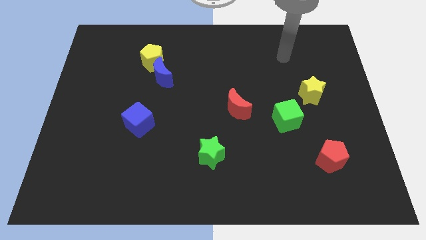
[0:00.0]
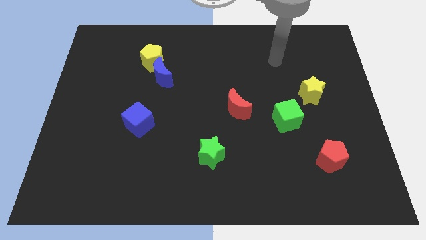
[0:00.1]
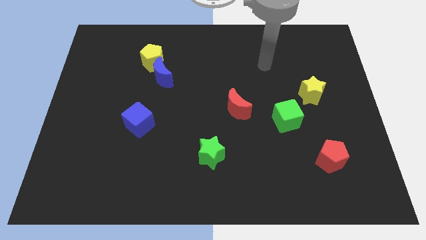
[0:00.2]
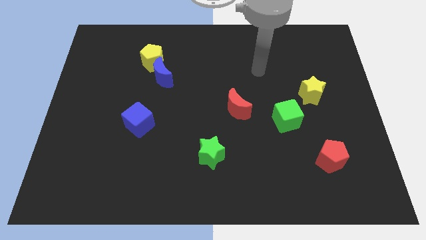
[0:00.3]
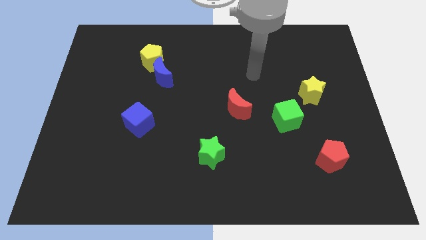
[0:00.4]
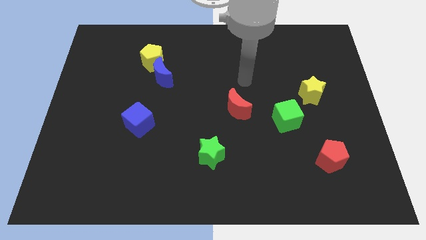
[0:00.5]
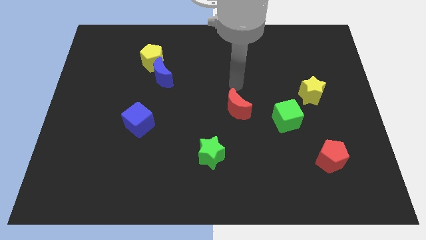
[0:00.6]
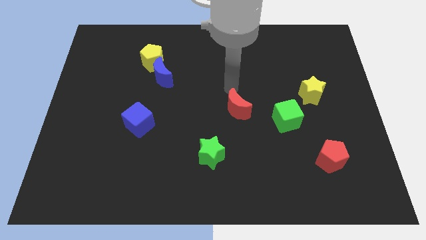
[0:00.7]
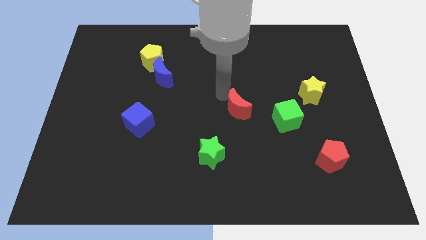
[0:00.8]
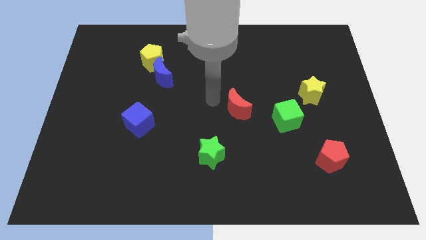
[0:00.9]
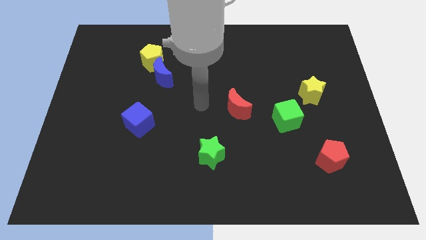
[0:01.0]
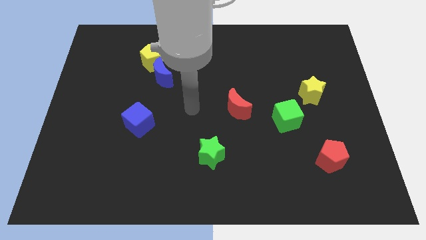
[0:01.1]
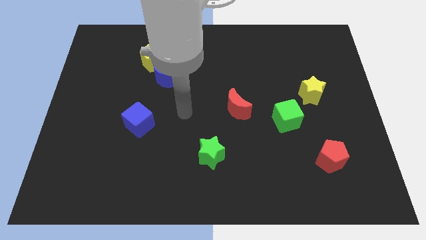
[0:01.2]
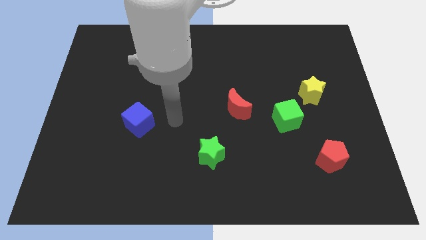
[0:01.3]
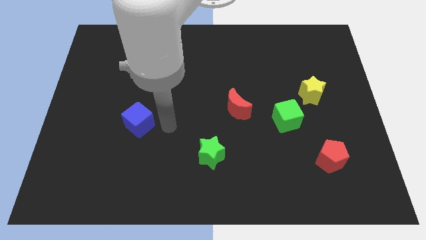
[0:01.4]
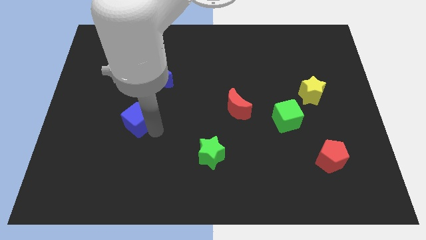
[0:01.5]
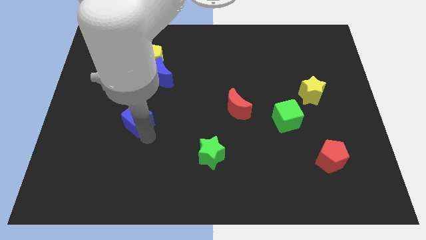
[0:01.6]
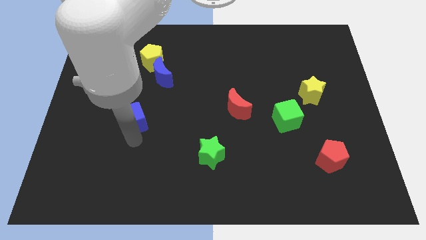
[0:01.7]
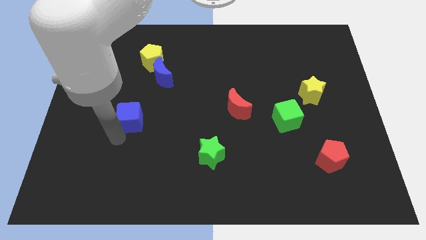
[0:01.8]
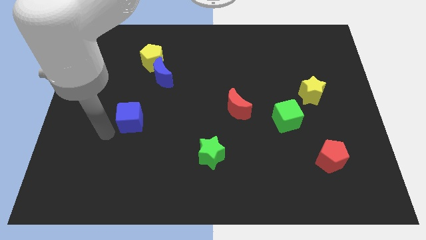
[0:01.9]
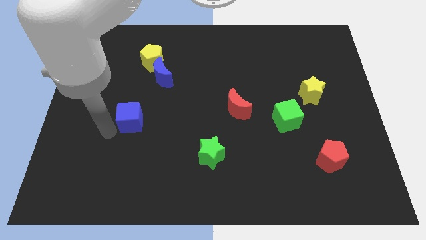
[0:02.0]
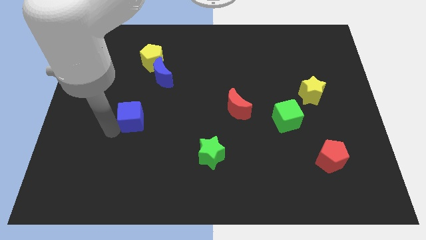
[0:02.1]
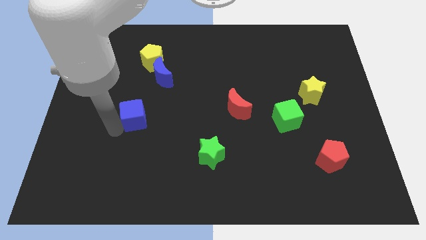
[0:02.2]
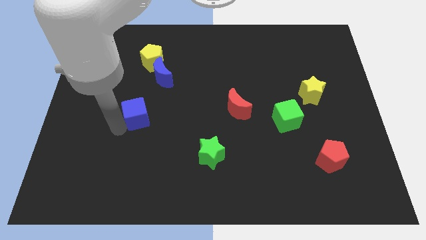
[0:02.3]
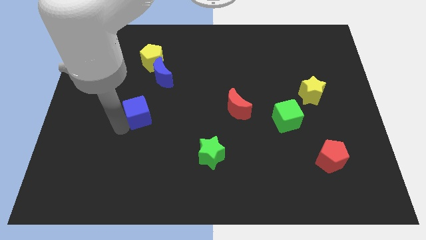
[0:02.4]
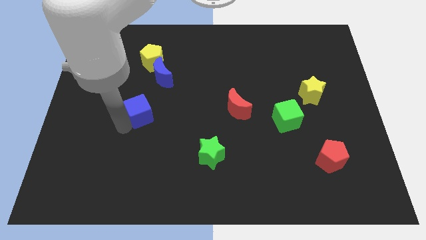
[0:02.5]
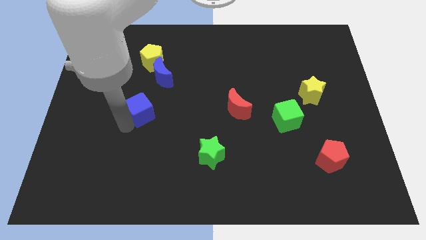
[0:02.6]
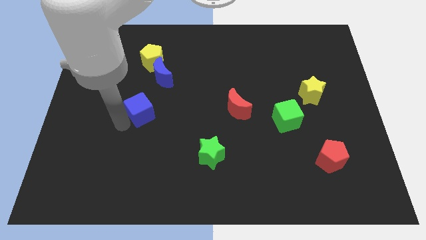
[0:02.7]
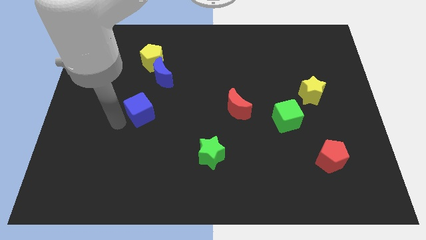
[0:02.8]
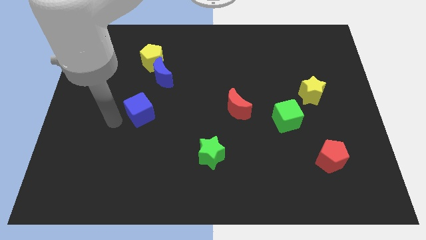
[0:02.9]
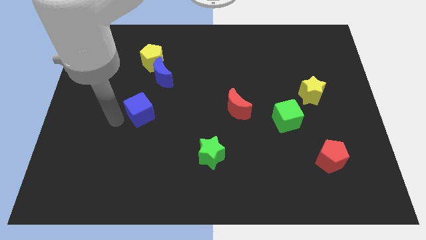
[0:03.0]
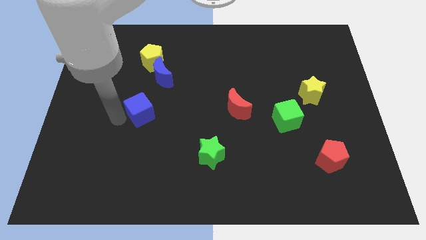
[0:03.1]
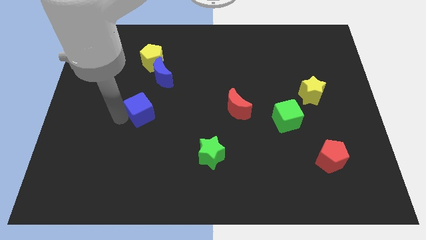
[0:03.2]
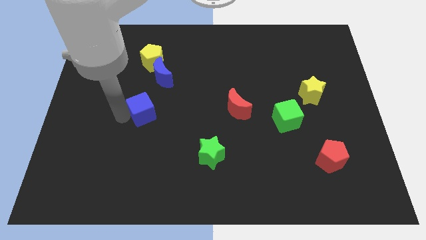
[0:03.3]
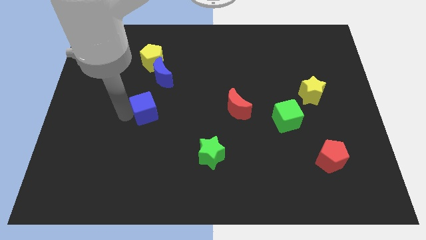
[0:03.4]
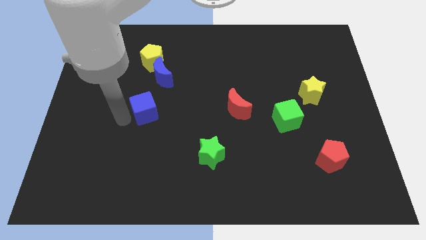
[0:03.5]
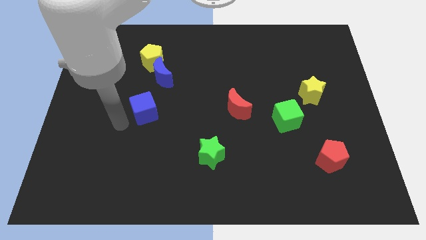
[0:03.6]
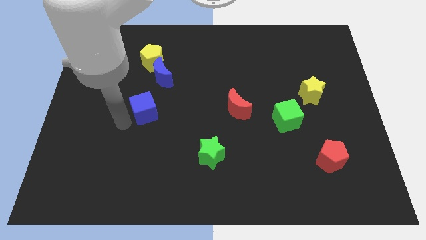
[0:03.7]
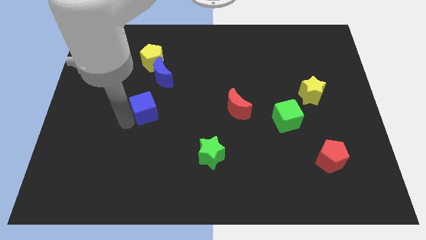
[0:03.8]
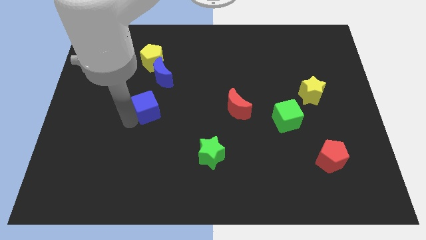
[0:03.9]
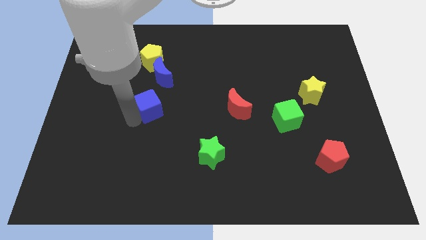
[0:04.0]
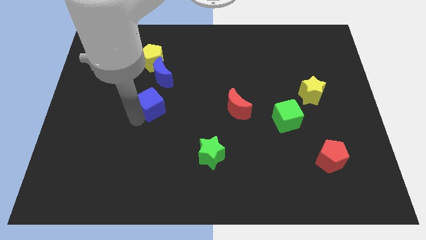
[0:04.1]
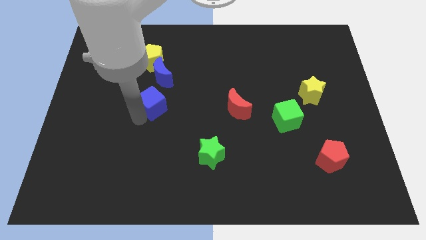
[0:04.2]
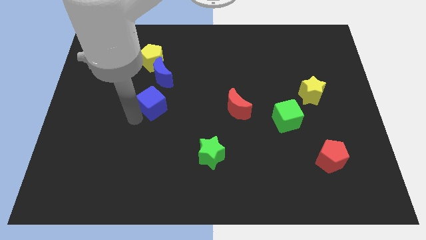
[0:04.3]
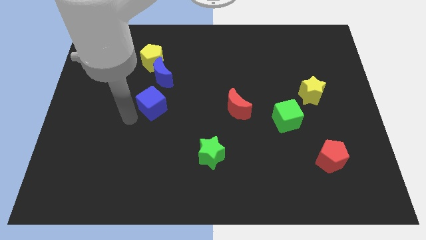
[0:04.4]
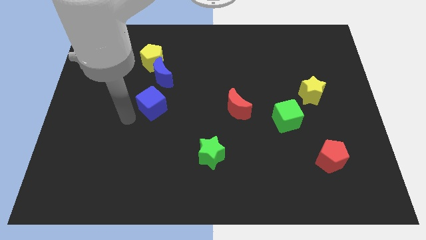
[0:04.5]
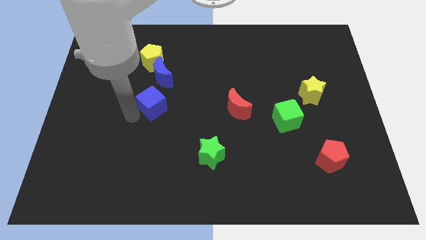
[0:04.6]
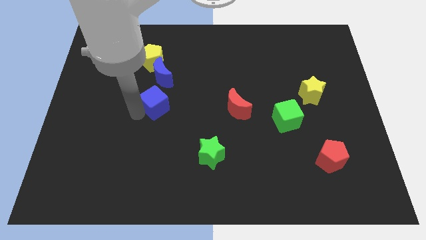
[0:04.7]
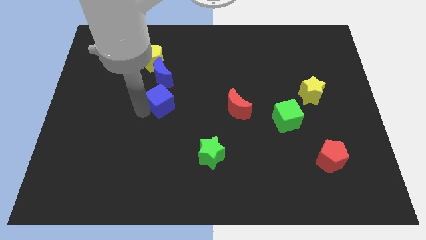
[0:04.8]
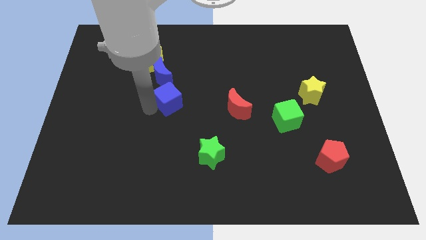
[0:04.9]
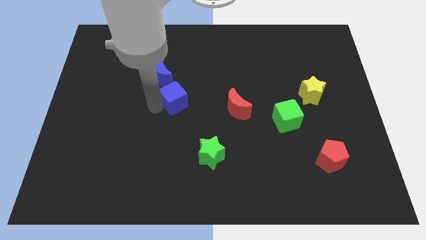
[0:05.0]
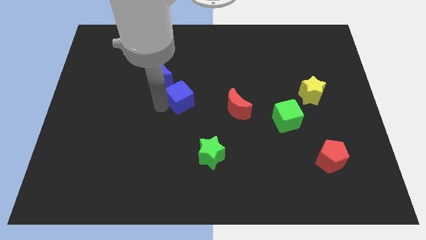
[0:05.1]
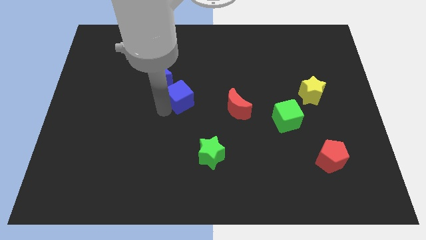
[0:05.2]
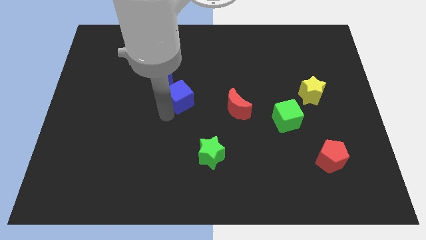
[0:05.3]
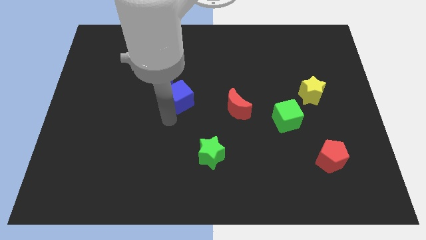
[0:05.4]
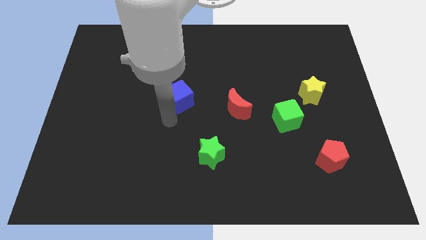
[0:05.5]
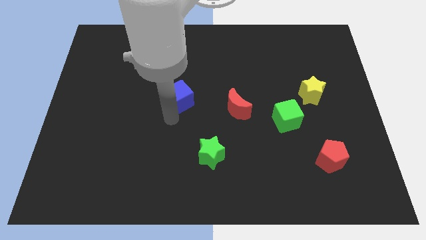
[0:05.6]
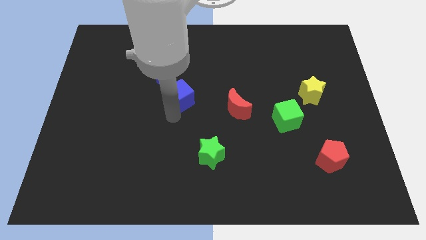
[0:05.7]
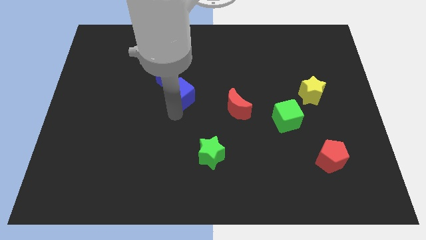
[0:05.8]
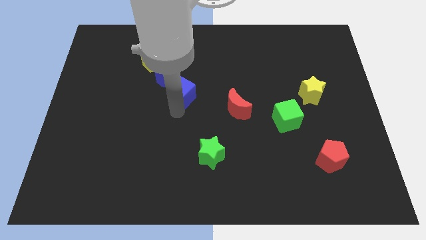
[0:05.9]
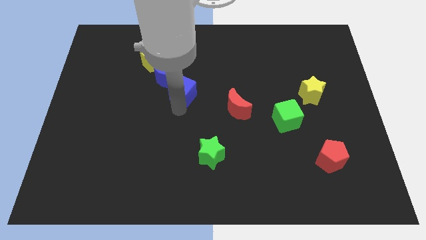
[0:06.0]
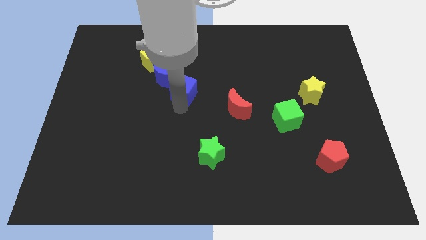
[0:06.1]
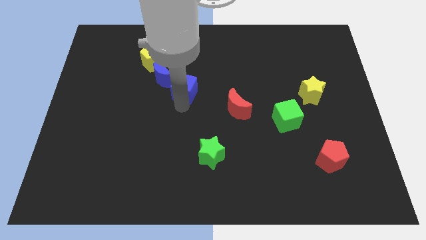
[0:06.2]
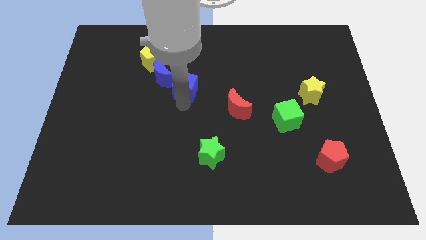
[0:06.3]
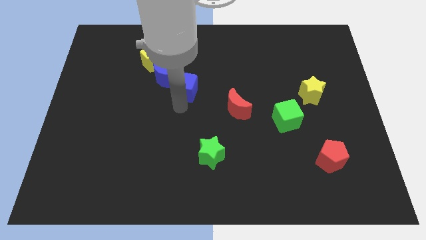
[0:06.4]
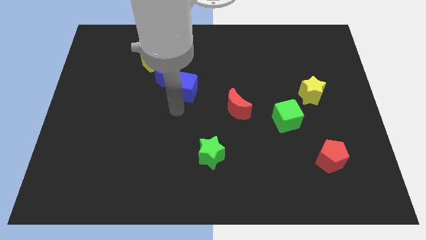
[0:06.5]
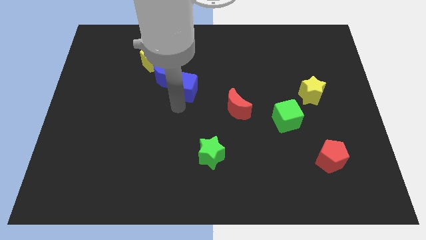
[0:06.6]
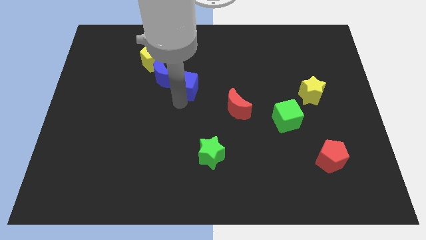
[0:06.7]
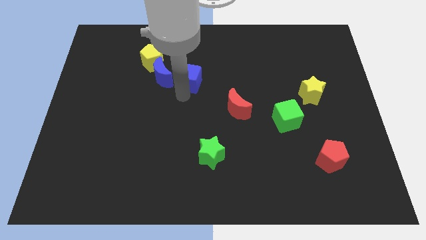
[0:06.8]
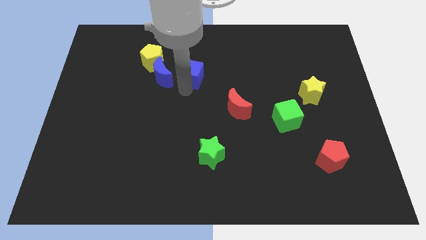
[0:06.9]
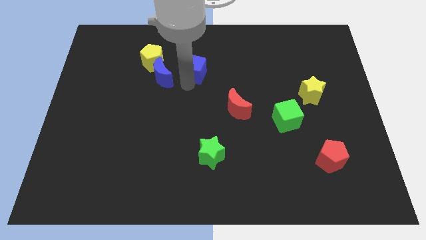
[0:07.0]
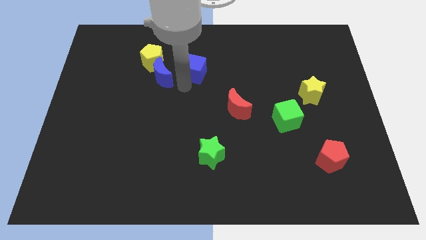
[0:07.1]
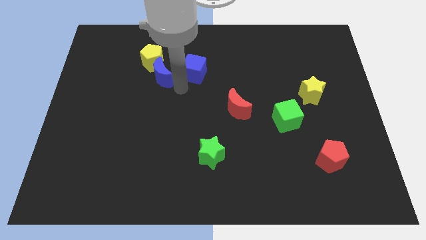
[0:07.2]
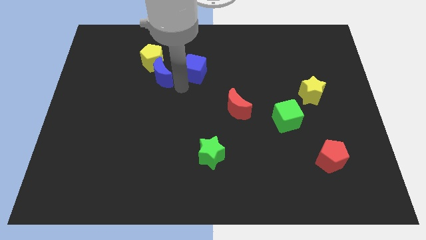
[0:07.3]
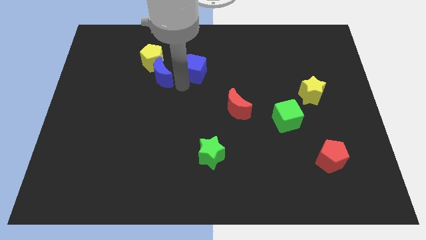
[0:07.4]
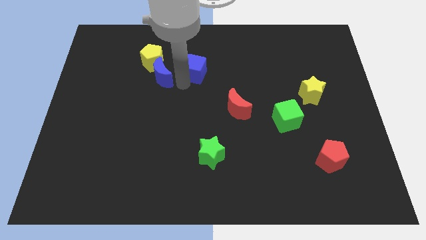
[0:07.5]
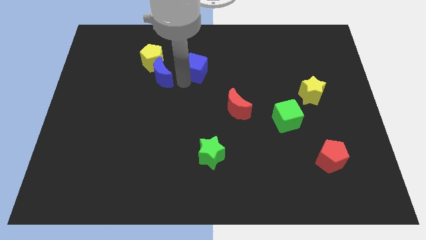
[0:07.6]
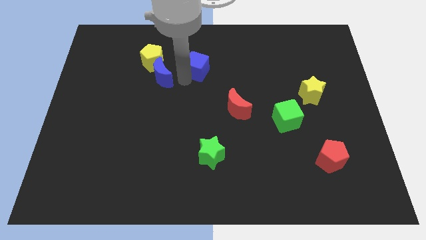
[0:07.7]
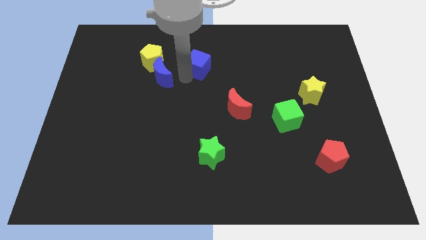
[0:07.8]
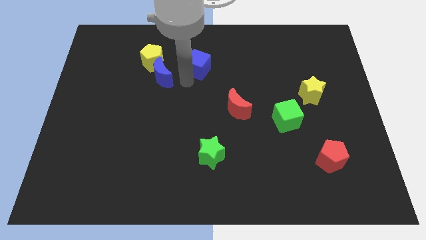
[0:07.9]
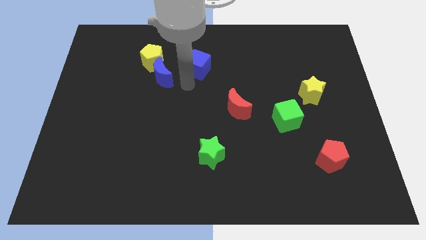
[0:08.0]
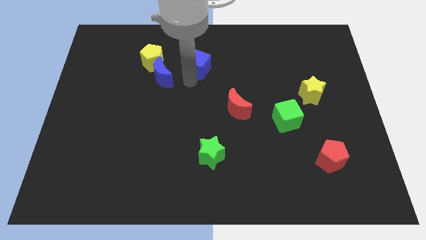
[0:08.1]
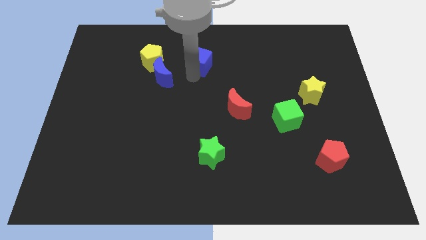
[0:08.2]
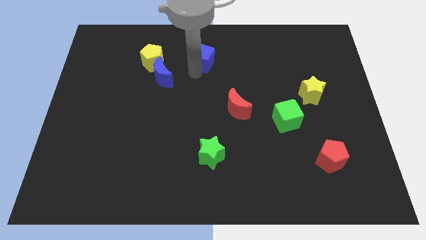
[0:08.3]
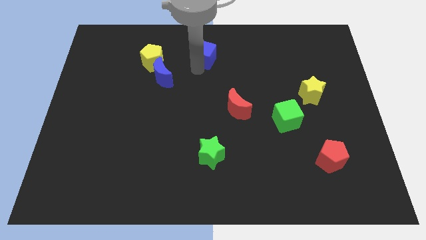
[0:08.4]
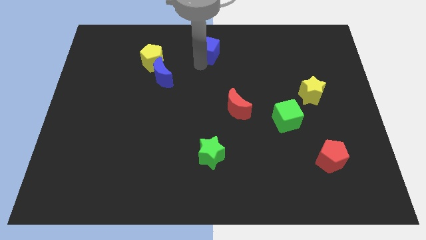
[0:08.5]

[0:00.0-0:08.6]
move the blue cube to the top side
